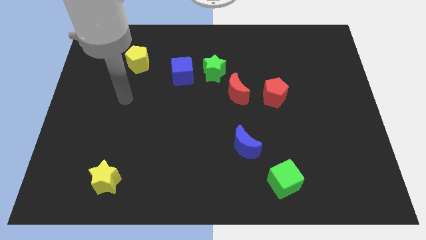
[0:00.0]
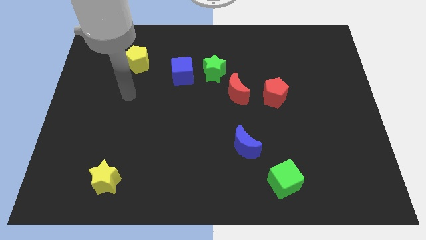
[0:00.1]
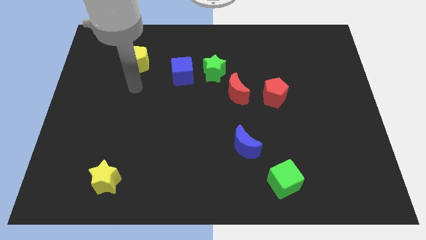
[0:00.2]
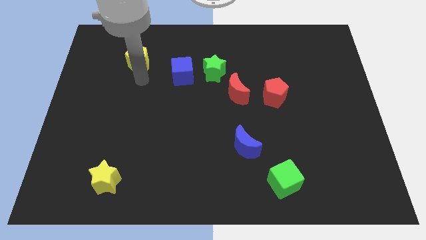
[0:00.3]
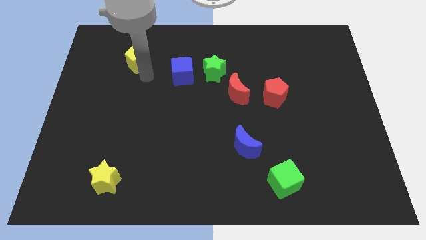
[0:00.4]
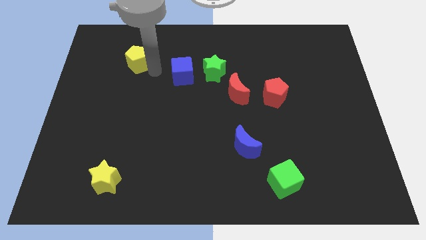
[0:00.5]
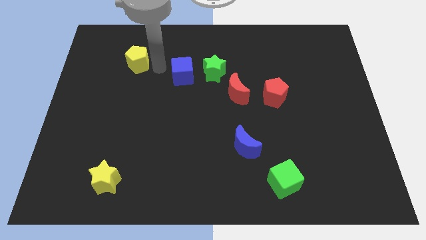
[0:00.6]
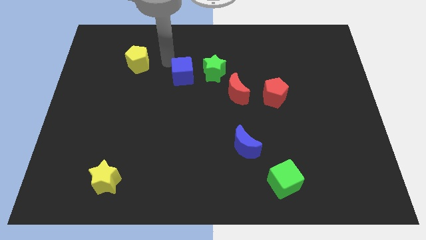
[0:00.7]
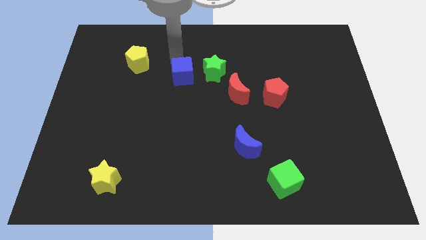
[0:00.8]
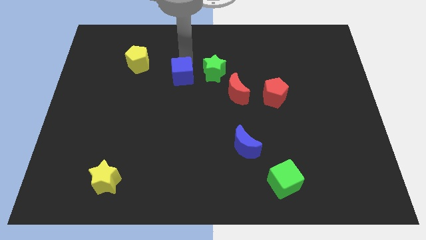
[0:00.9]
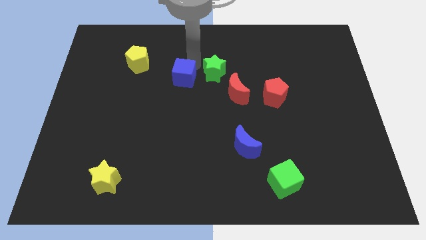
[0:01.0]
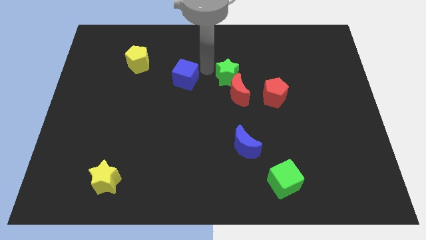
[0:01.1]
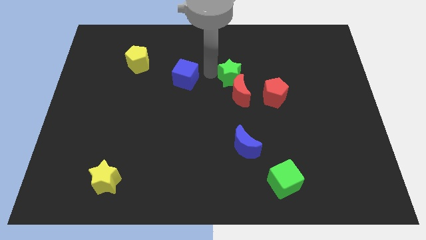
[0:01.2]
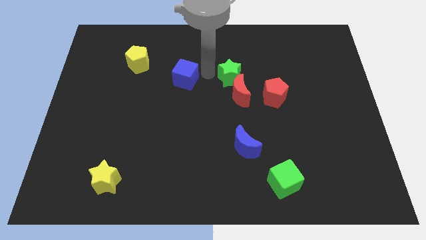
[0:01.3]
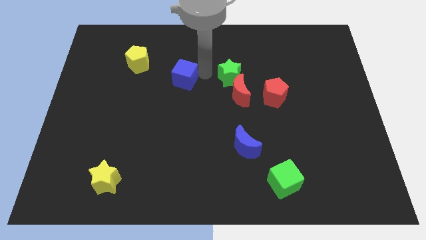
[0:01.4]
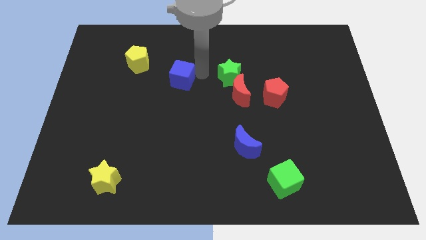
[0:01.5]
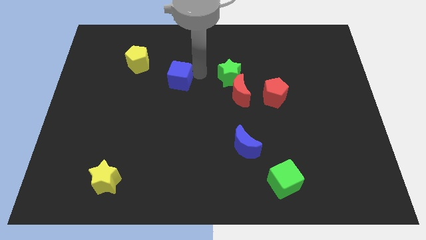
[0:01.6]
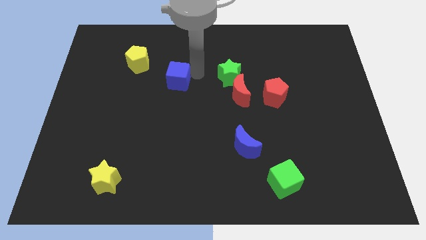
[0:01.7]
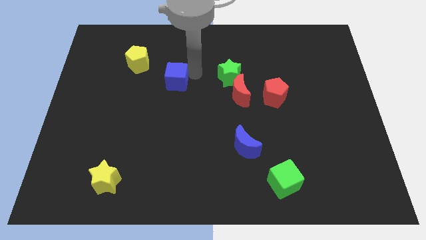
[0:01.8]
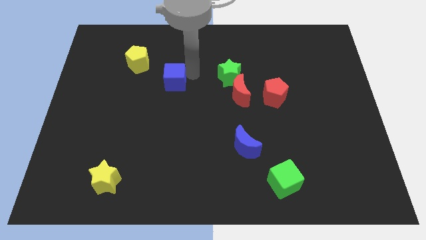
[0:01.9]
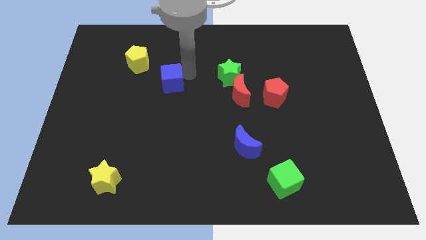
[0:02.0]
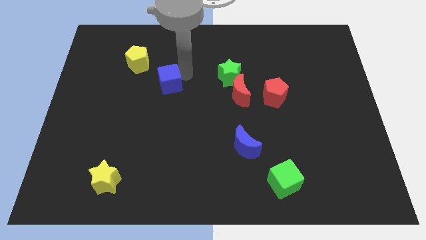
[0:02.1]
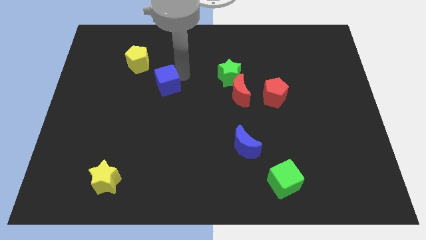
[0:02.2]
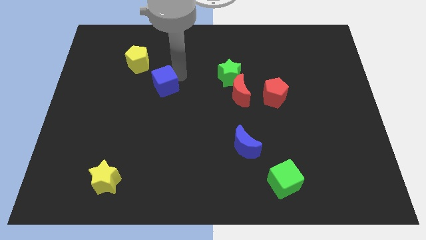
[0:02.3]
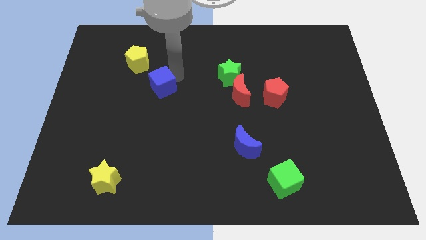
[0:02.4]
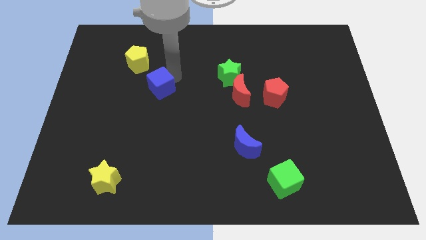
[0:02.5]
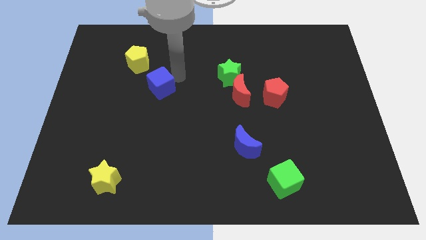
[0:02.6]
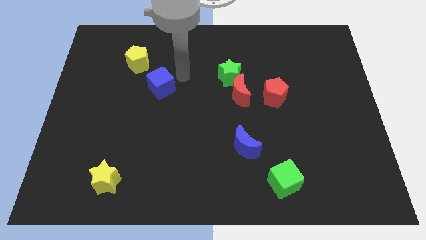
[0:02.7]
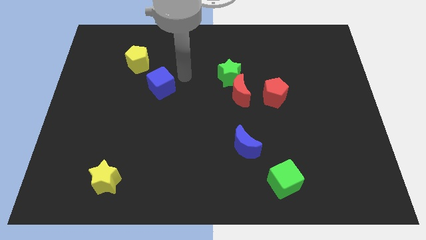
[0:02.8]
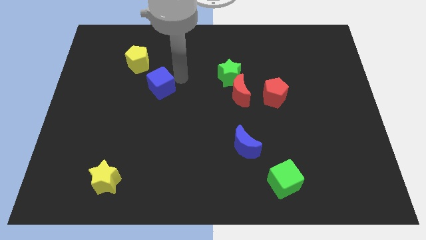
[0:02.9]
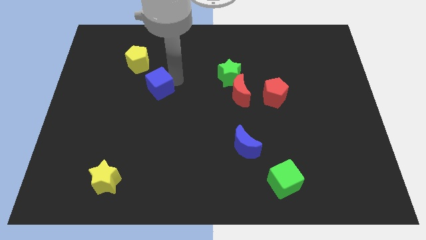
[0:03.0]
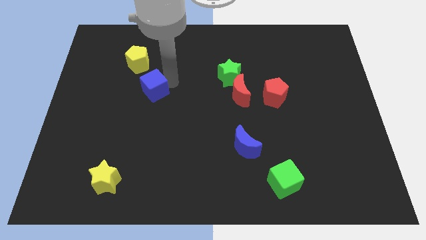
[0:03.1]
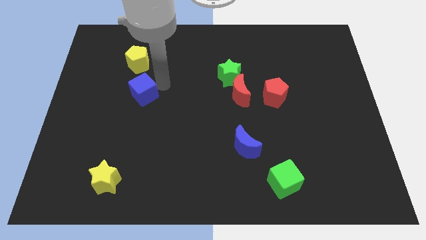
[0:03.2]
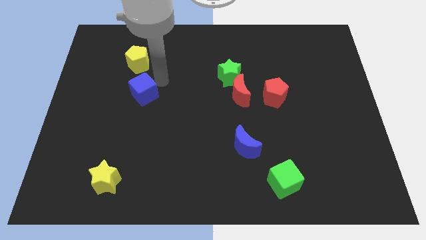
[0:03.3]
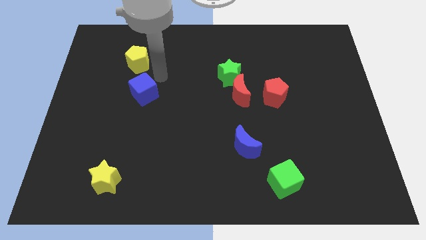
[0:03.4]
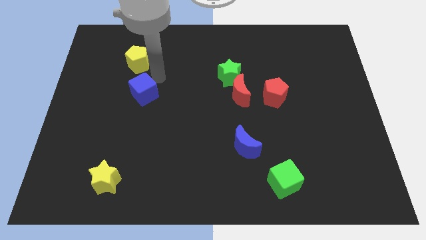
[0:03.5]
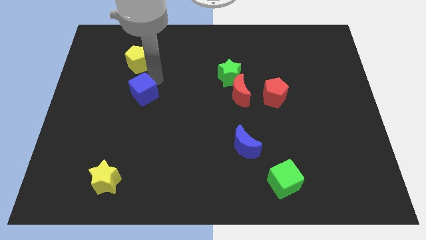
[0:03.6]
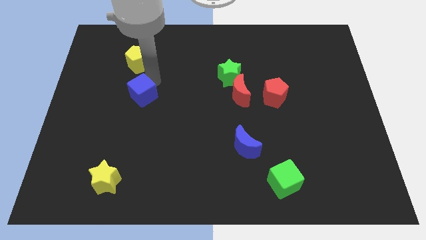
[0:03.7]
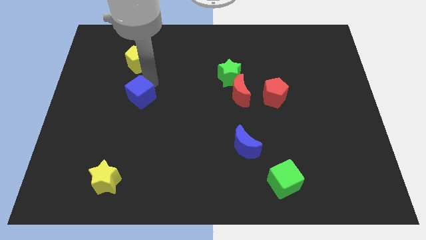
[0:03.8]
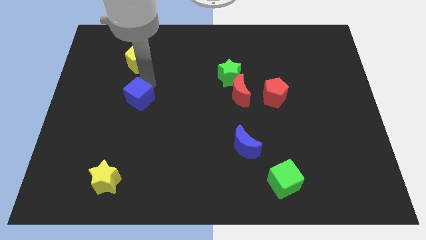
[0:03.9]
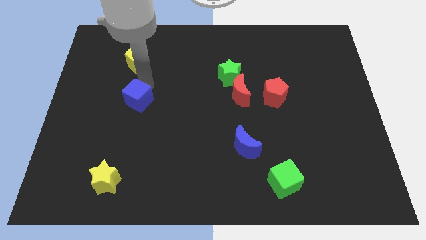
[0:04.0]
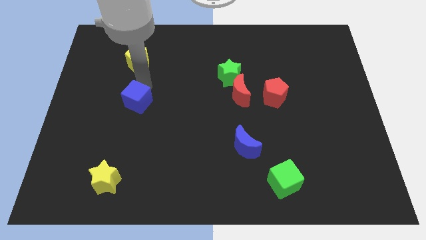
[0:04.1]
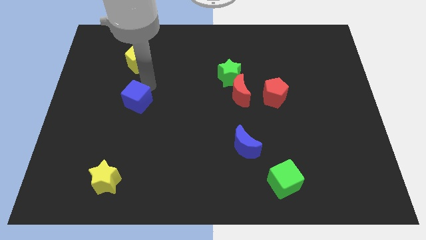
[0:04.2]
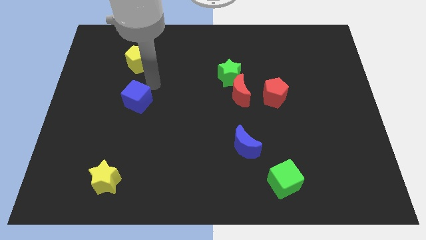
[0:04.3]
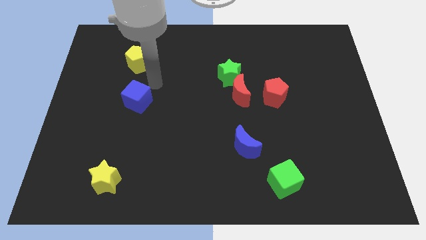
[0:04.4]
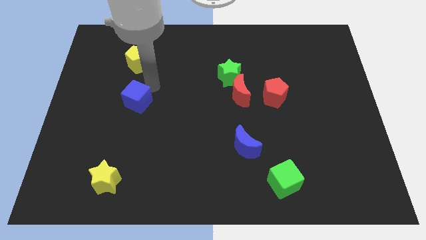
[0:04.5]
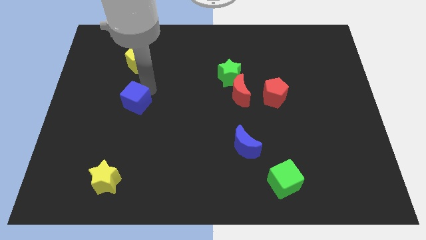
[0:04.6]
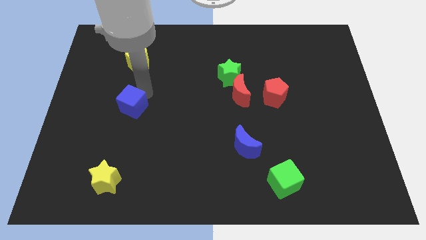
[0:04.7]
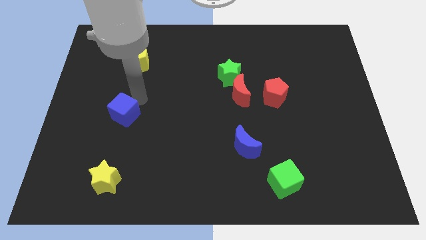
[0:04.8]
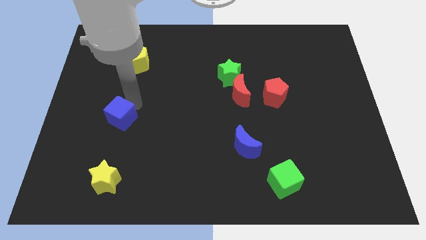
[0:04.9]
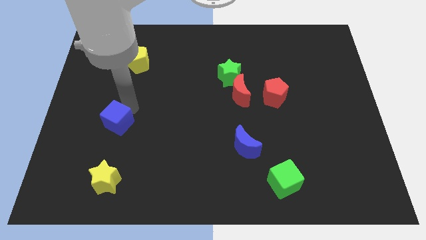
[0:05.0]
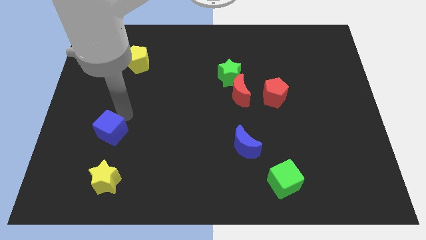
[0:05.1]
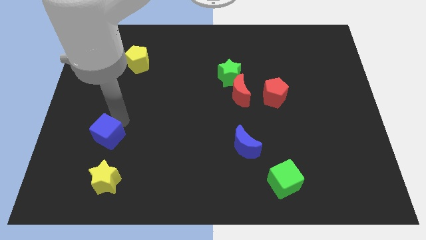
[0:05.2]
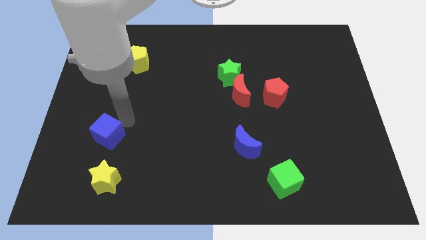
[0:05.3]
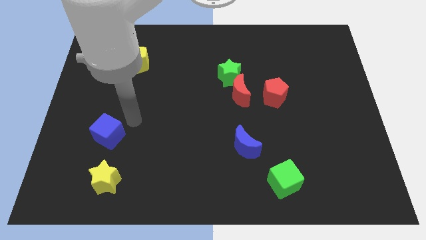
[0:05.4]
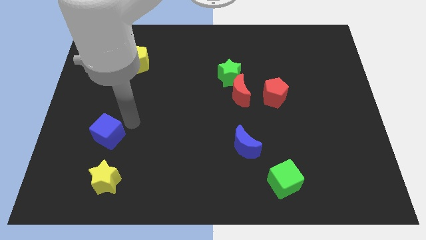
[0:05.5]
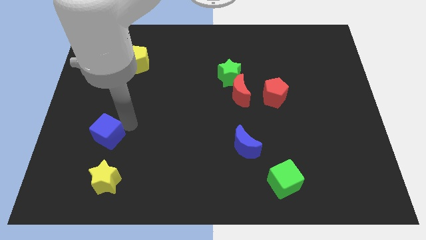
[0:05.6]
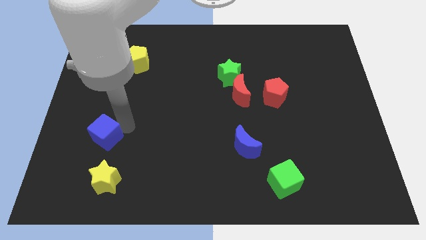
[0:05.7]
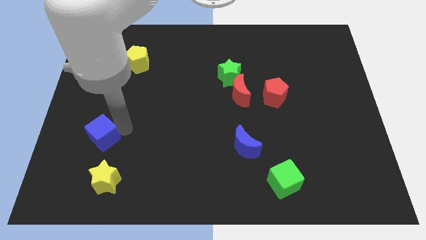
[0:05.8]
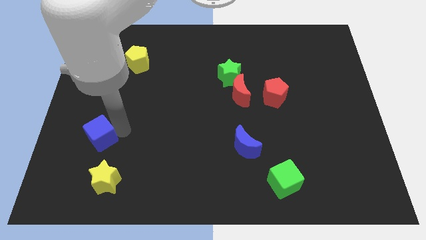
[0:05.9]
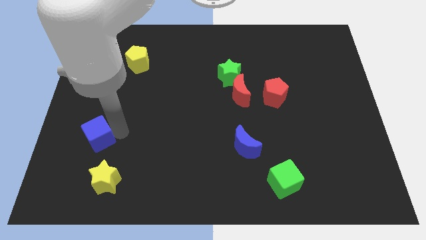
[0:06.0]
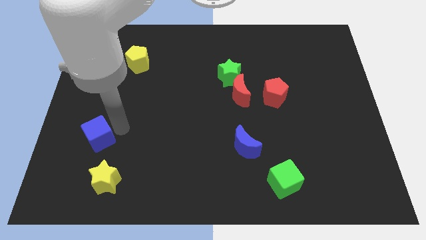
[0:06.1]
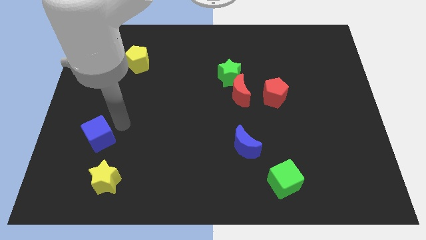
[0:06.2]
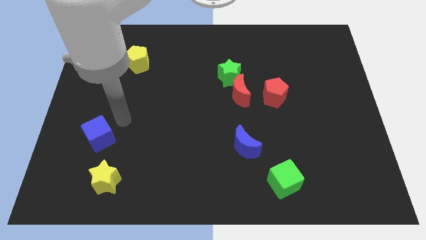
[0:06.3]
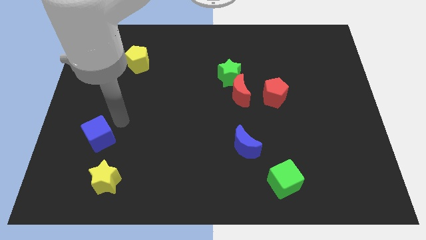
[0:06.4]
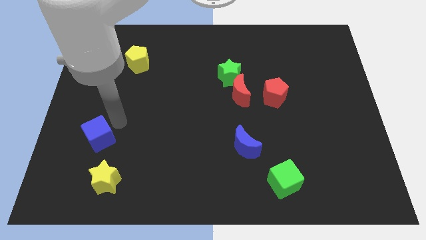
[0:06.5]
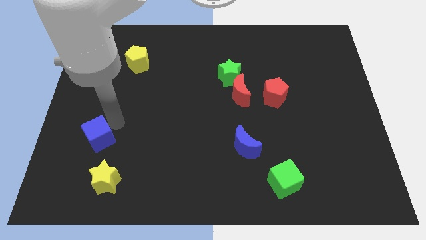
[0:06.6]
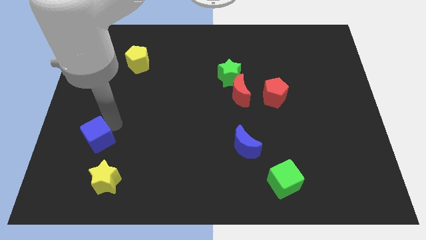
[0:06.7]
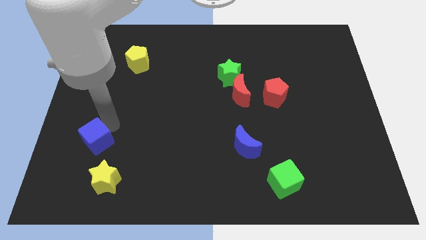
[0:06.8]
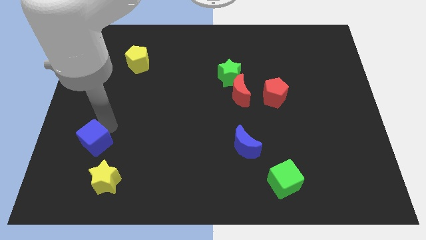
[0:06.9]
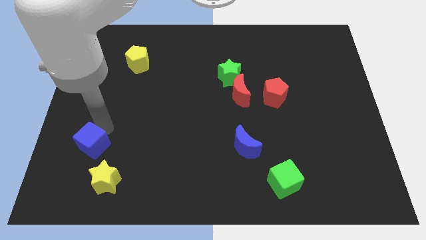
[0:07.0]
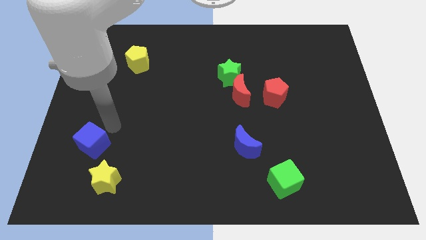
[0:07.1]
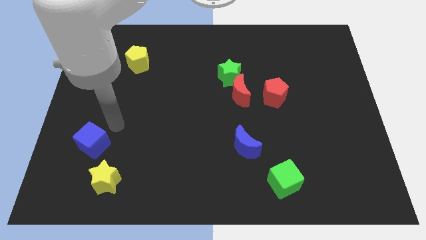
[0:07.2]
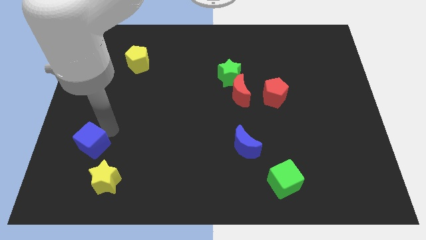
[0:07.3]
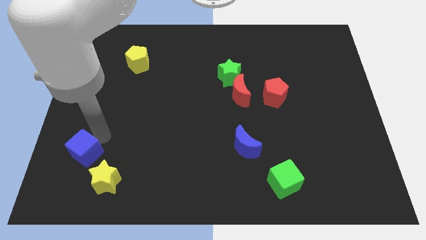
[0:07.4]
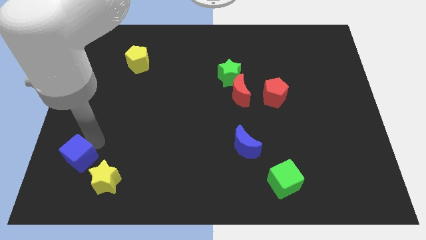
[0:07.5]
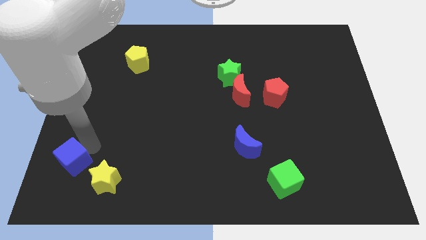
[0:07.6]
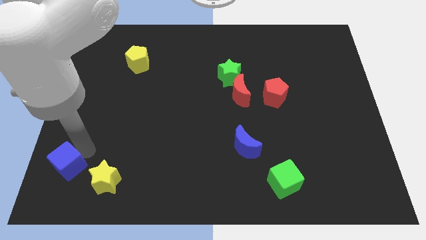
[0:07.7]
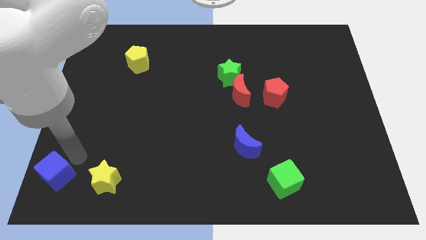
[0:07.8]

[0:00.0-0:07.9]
put the blue cube to the bottom left corner
